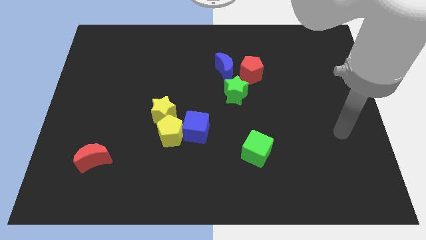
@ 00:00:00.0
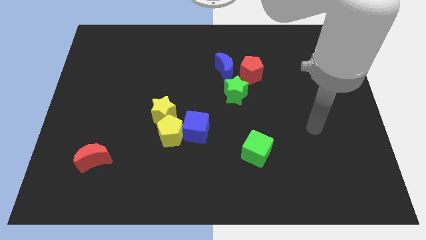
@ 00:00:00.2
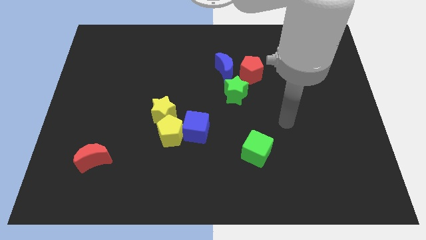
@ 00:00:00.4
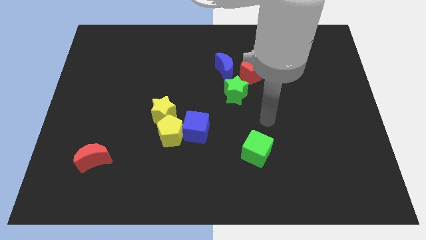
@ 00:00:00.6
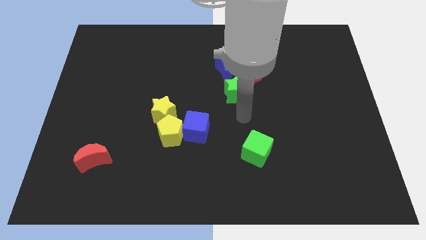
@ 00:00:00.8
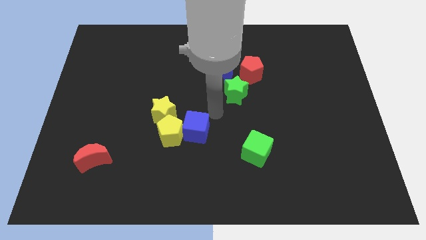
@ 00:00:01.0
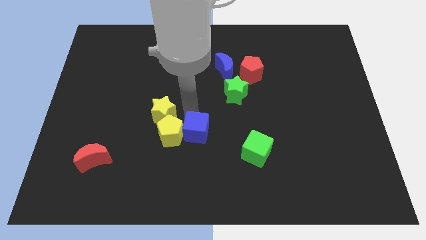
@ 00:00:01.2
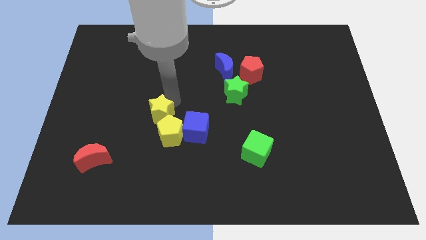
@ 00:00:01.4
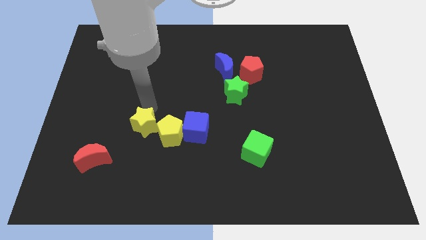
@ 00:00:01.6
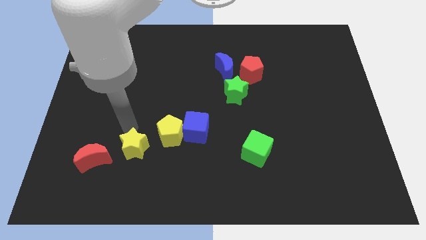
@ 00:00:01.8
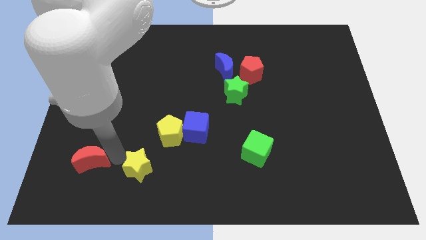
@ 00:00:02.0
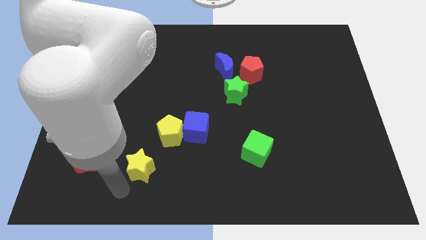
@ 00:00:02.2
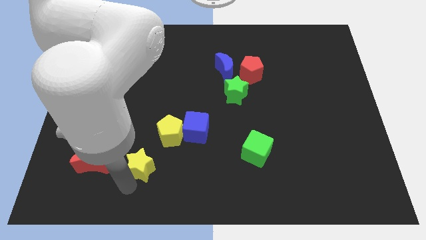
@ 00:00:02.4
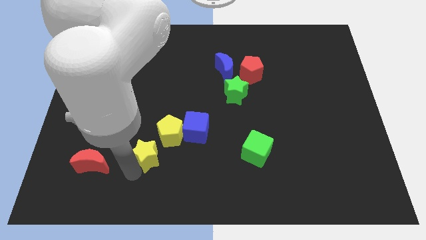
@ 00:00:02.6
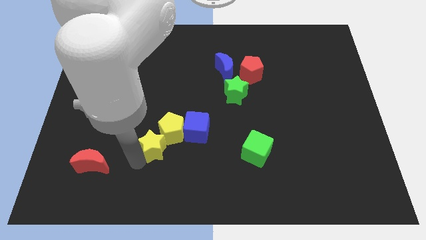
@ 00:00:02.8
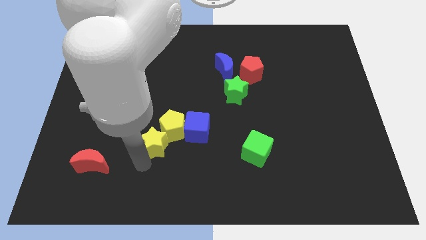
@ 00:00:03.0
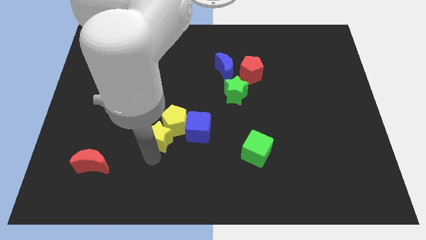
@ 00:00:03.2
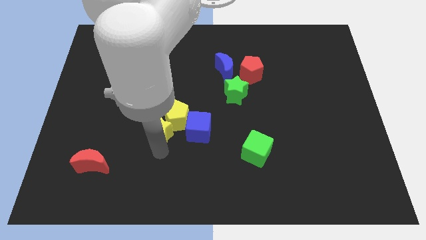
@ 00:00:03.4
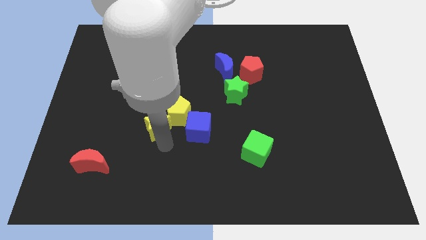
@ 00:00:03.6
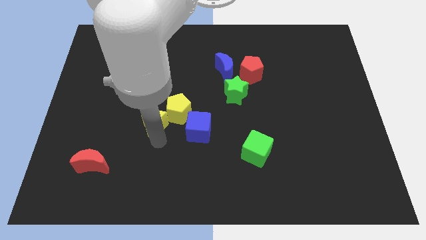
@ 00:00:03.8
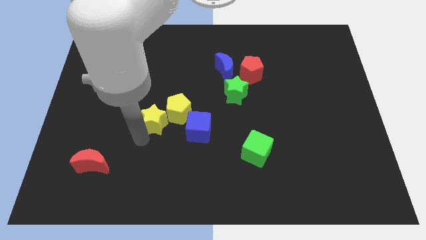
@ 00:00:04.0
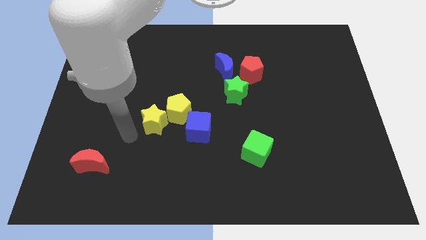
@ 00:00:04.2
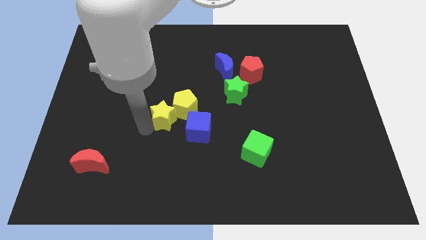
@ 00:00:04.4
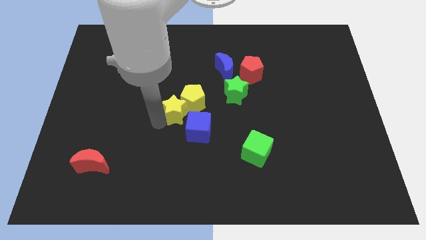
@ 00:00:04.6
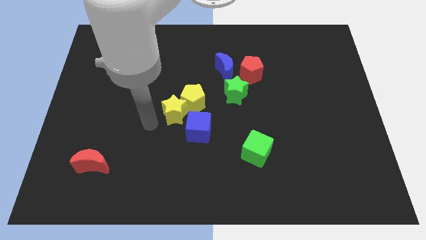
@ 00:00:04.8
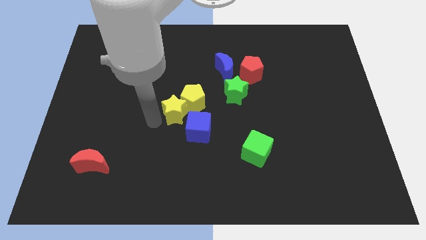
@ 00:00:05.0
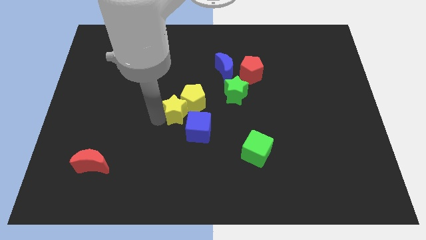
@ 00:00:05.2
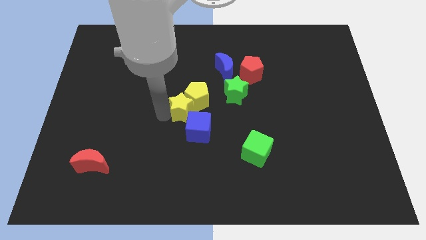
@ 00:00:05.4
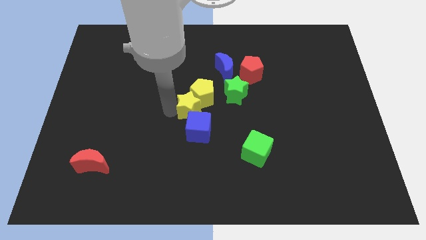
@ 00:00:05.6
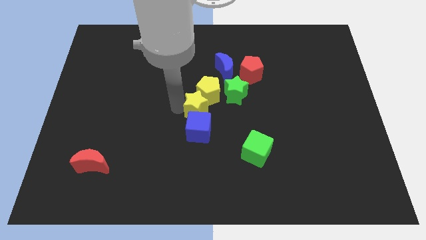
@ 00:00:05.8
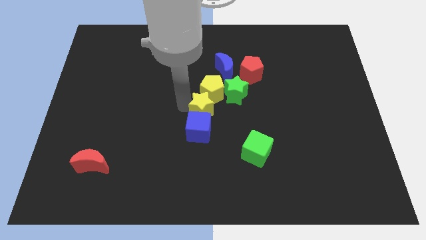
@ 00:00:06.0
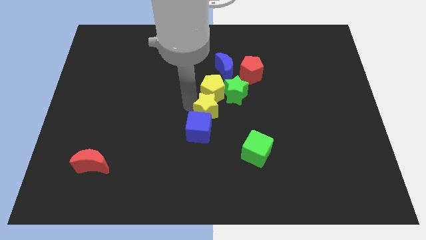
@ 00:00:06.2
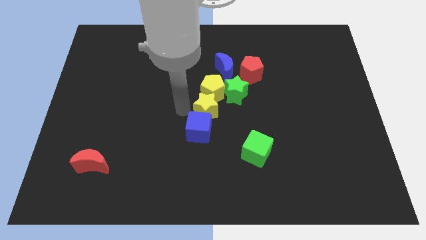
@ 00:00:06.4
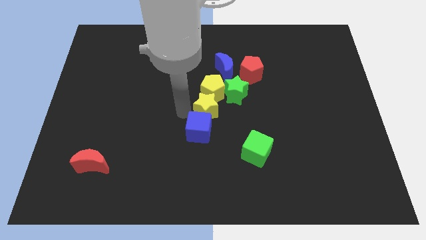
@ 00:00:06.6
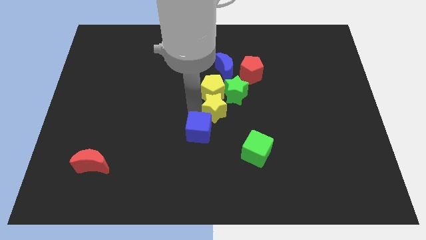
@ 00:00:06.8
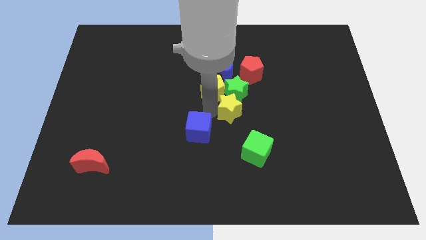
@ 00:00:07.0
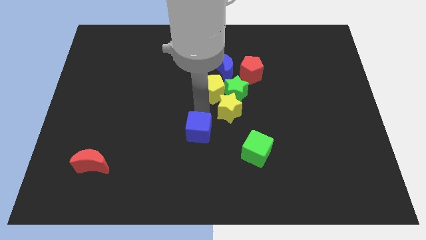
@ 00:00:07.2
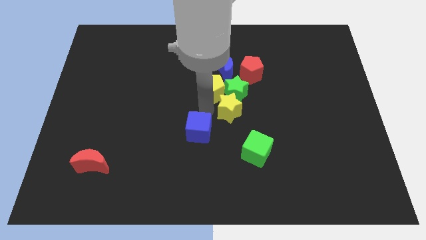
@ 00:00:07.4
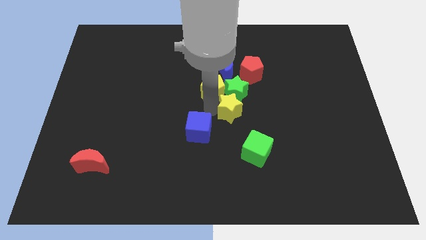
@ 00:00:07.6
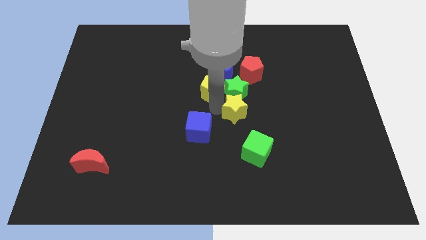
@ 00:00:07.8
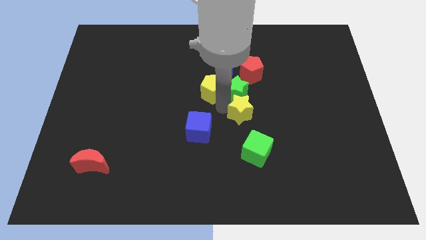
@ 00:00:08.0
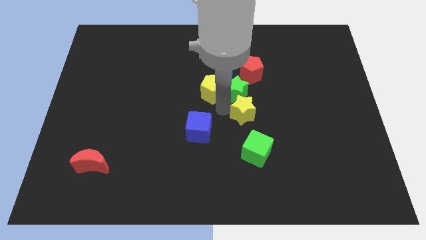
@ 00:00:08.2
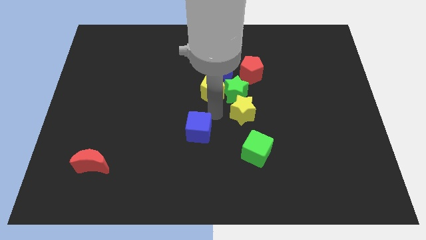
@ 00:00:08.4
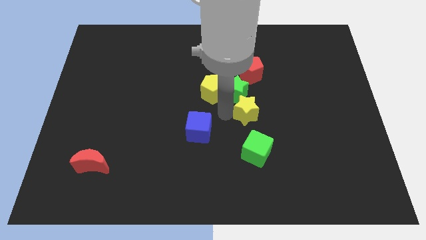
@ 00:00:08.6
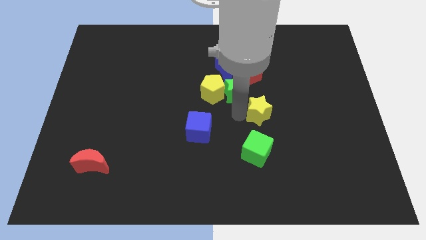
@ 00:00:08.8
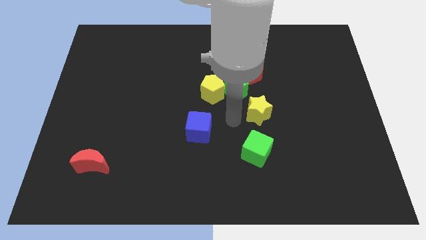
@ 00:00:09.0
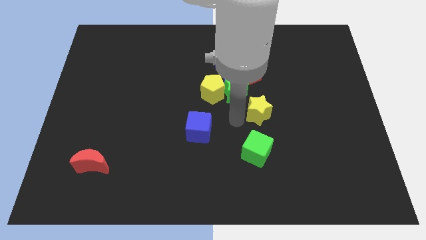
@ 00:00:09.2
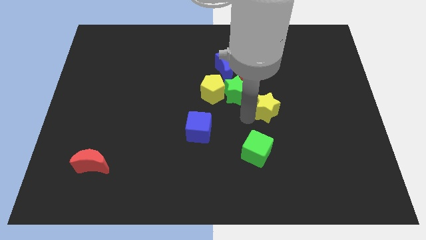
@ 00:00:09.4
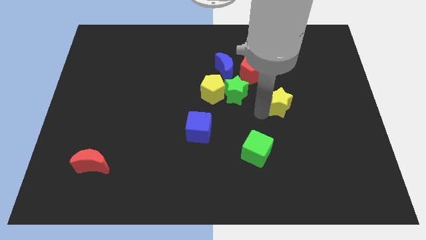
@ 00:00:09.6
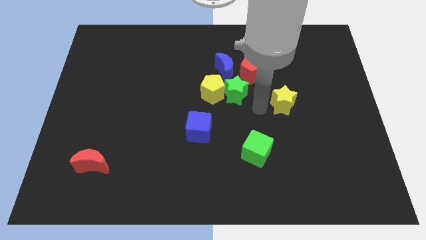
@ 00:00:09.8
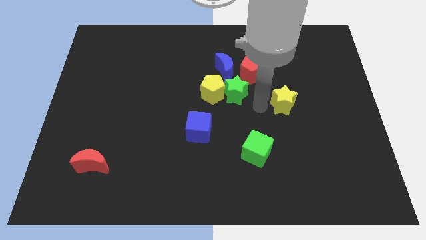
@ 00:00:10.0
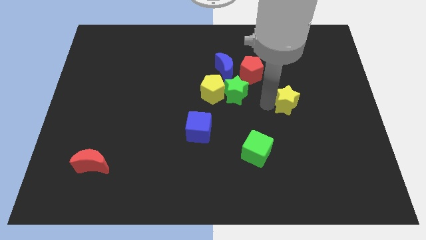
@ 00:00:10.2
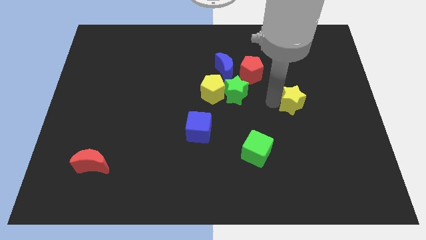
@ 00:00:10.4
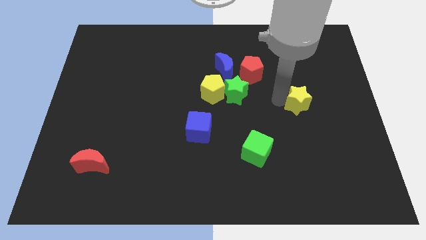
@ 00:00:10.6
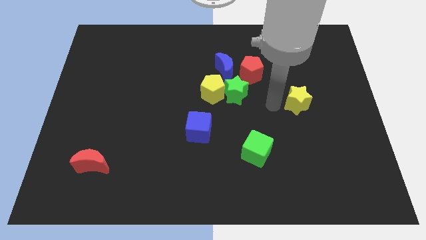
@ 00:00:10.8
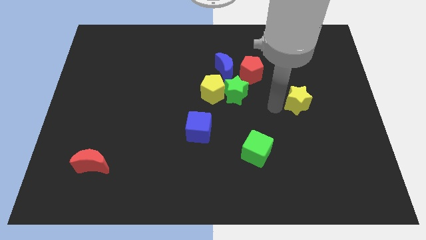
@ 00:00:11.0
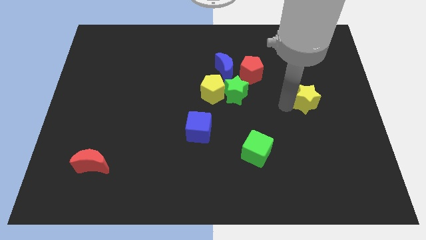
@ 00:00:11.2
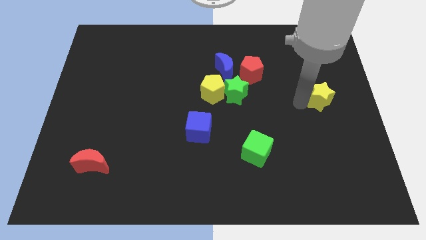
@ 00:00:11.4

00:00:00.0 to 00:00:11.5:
put the yellow star to the center right
